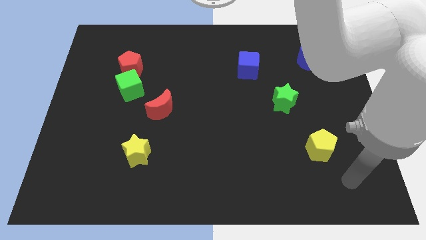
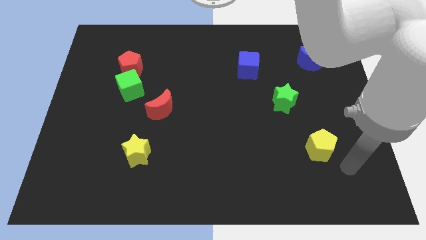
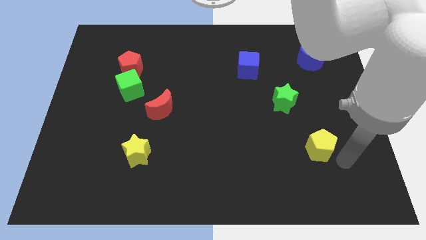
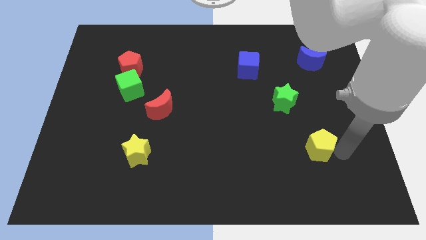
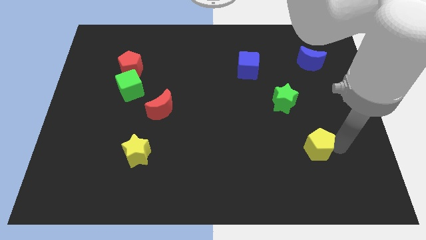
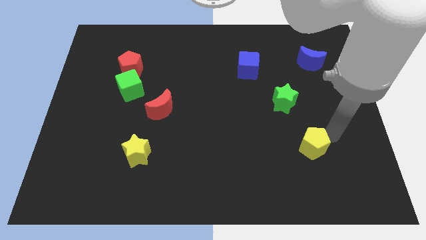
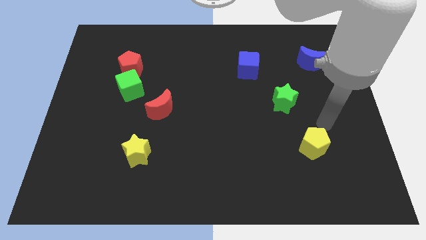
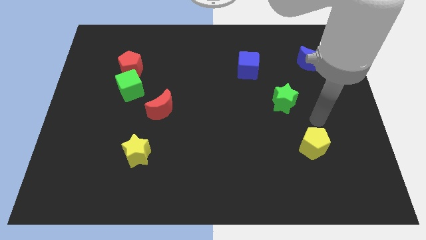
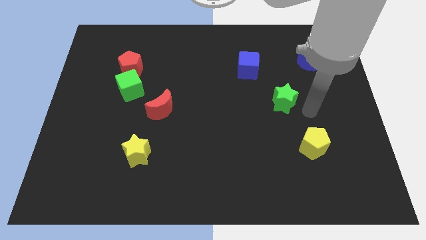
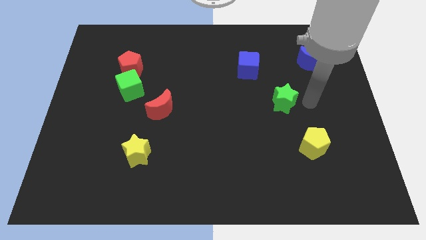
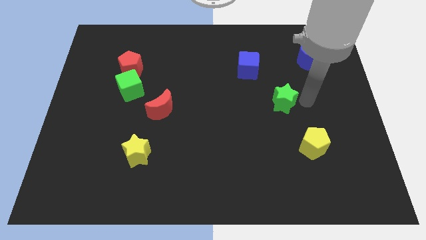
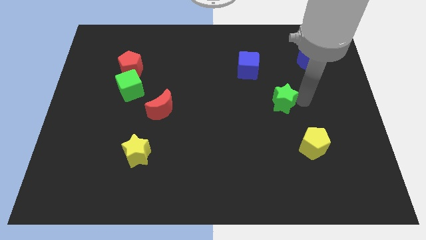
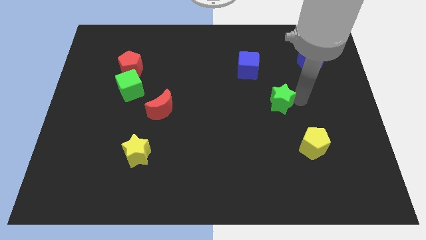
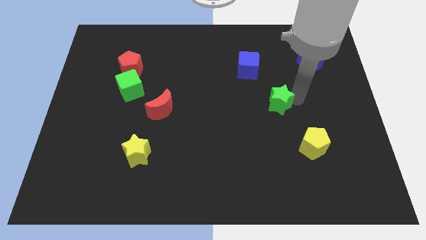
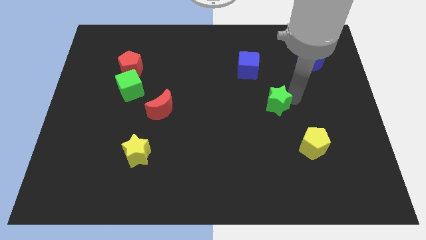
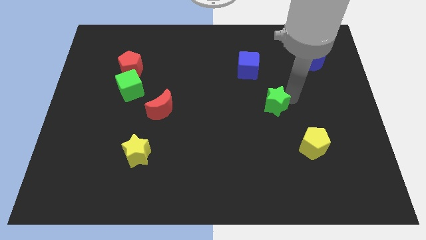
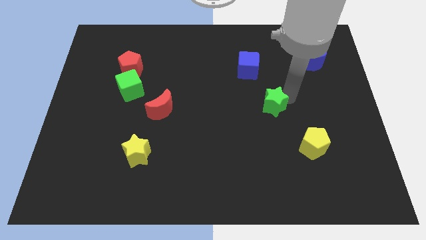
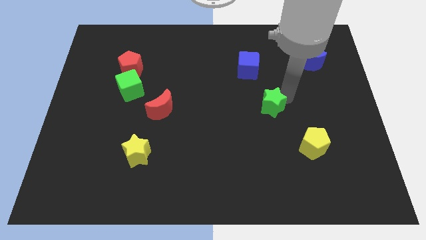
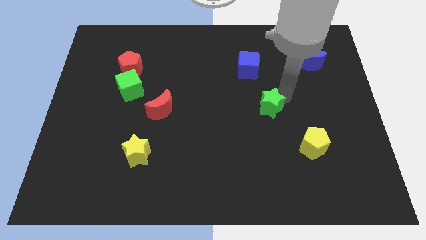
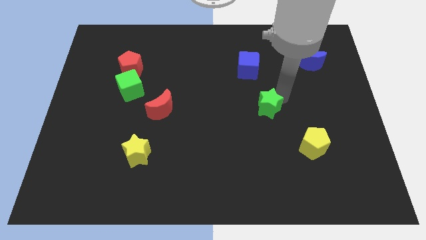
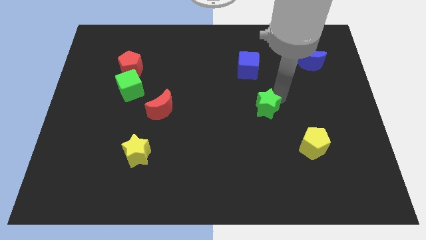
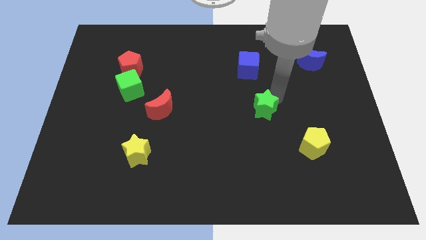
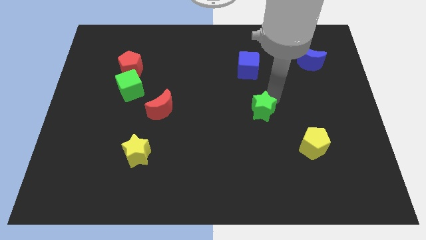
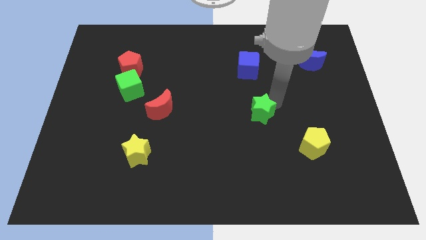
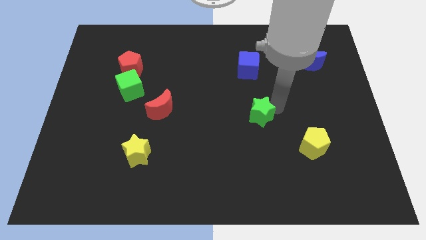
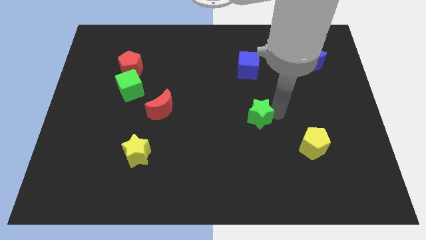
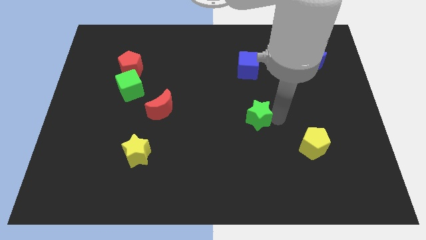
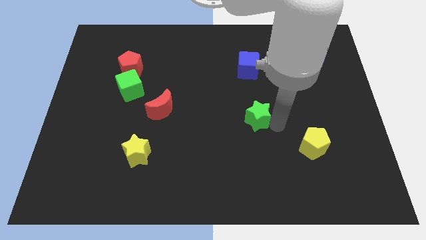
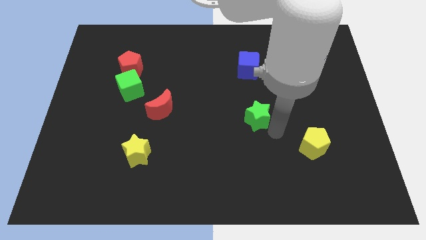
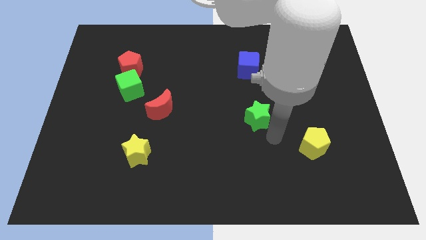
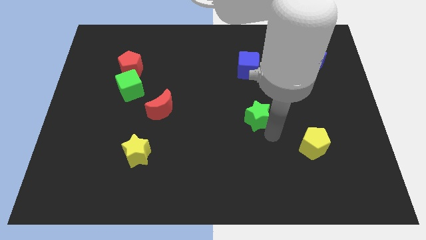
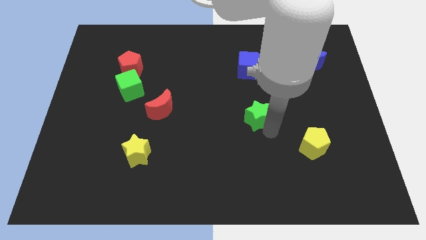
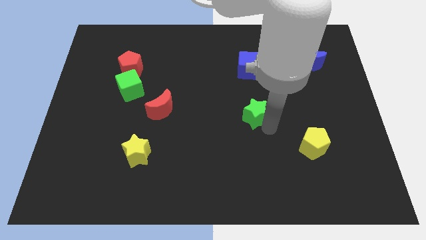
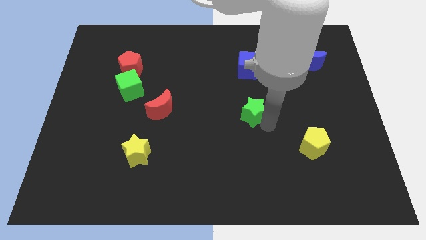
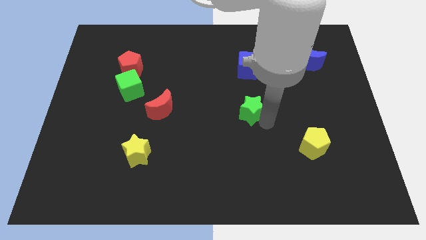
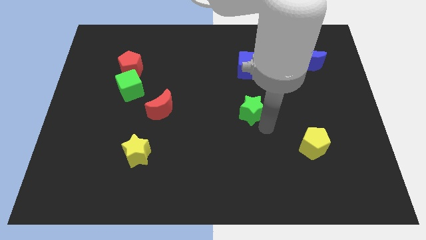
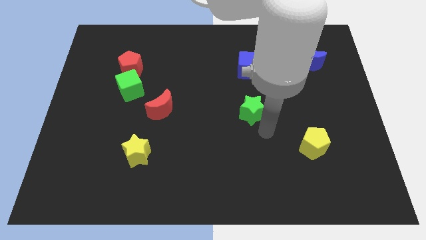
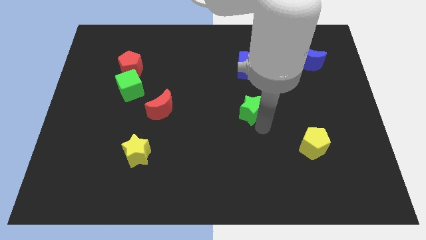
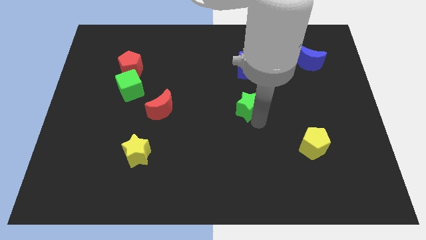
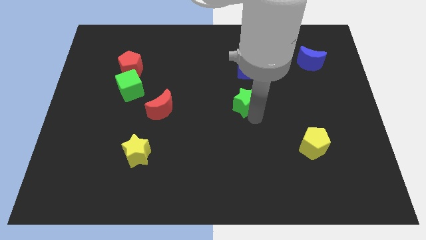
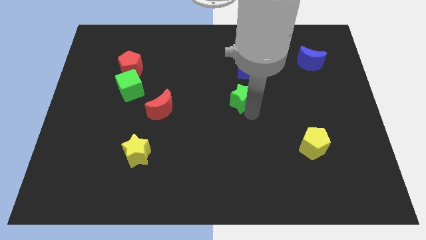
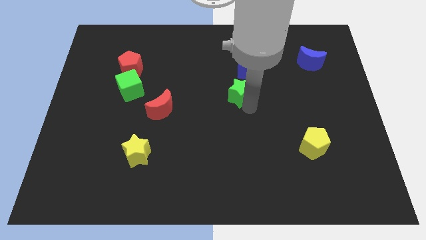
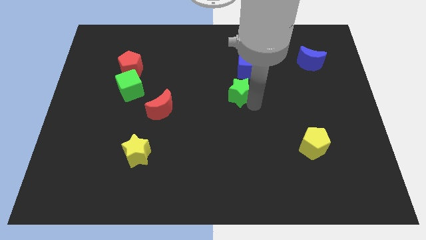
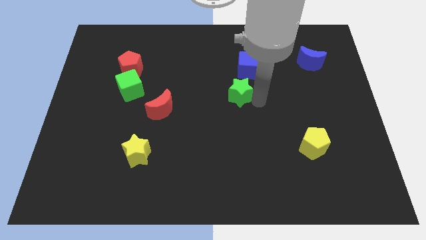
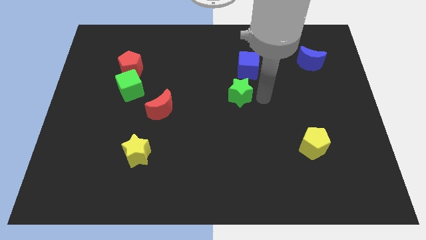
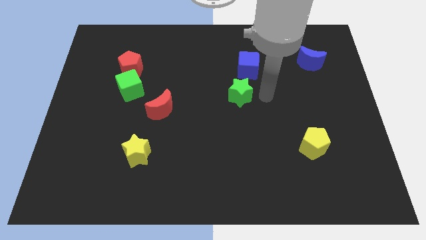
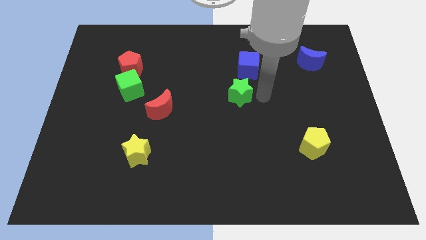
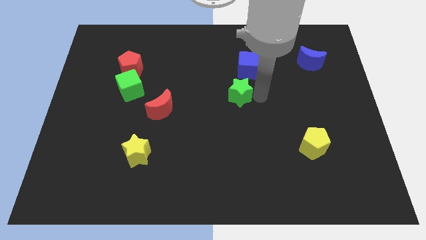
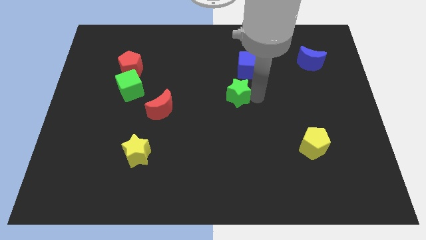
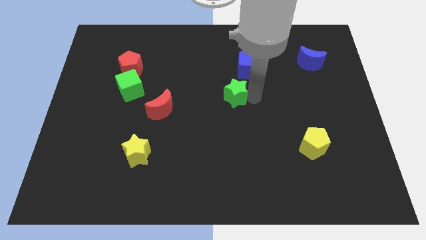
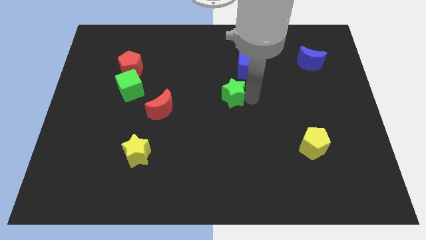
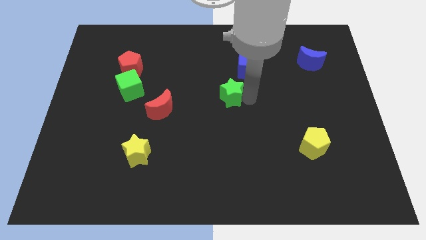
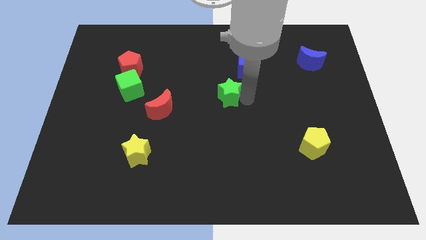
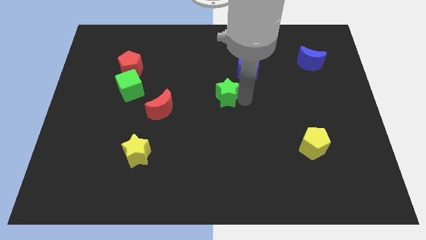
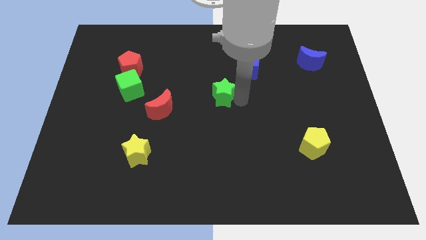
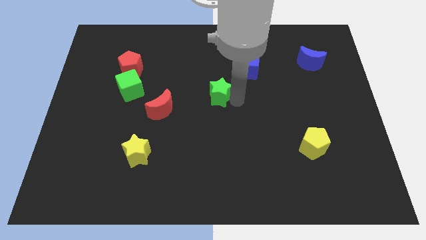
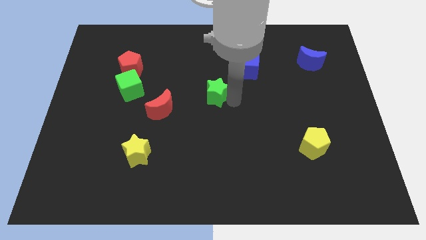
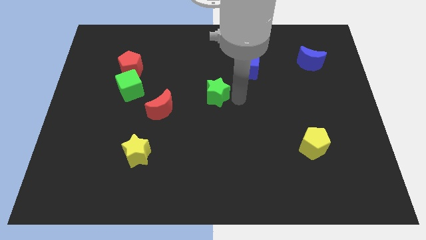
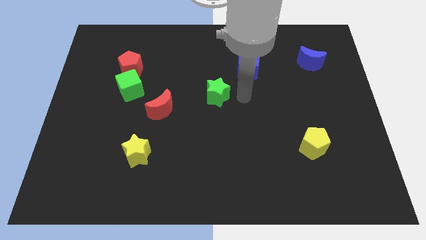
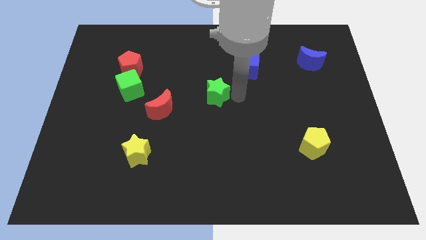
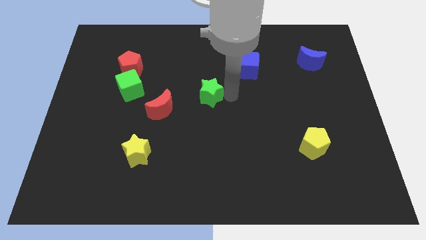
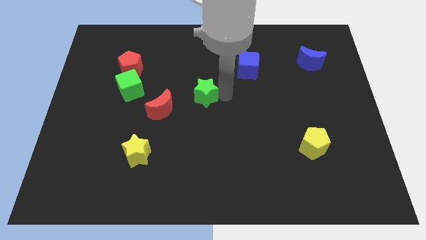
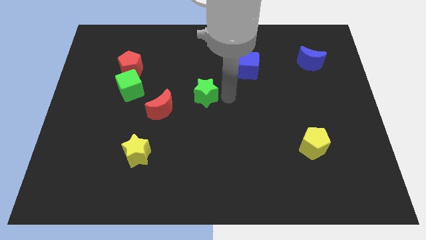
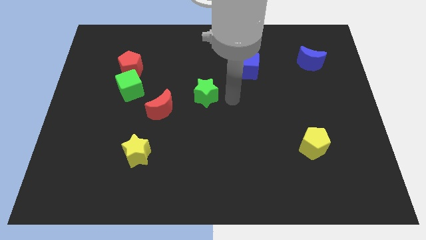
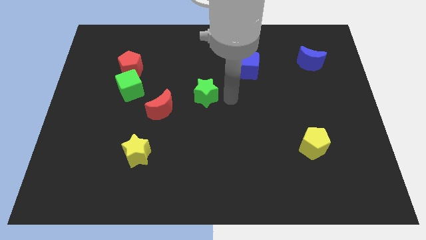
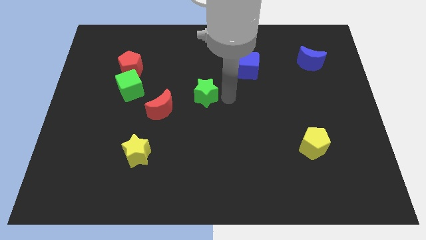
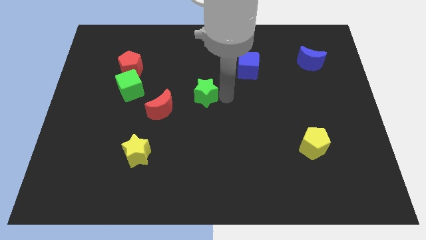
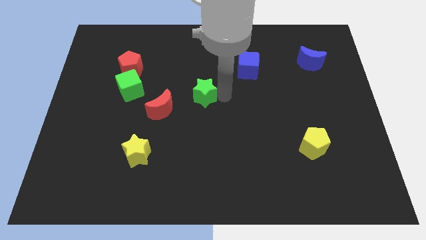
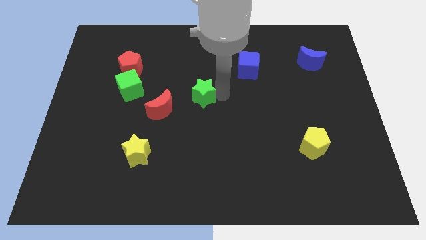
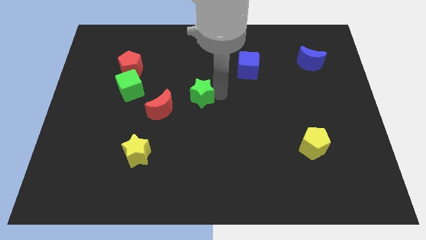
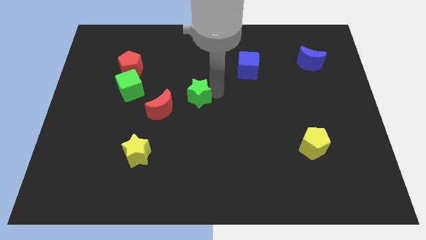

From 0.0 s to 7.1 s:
slide the green star to the left

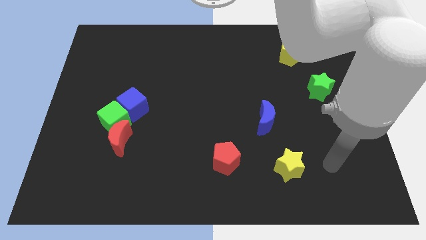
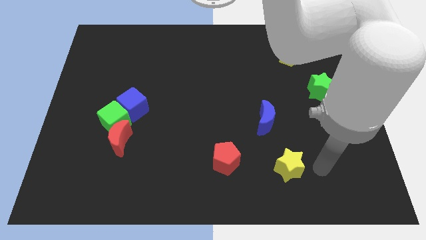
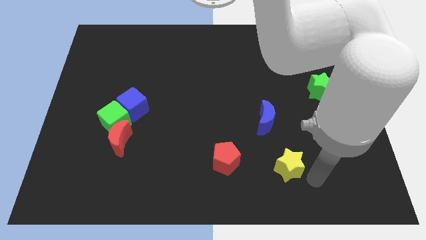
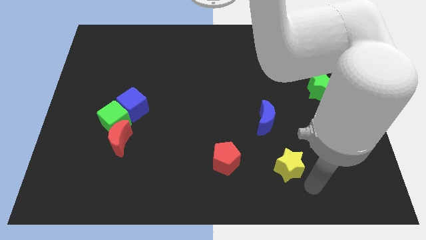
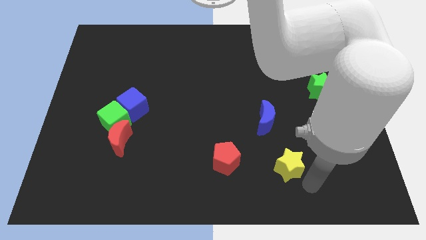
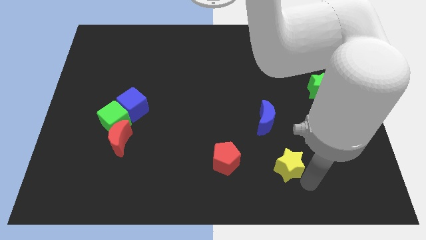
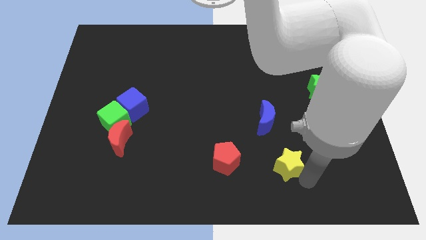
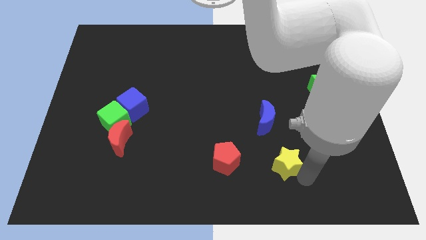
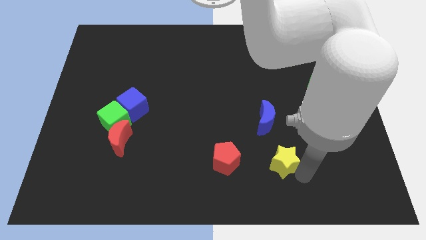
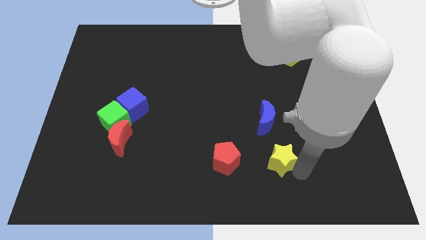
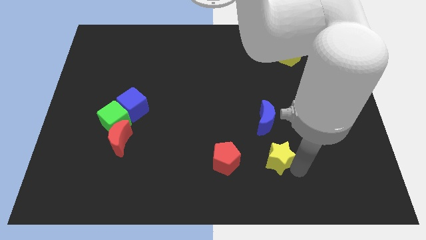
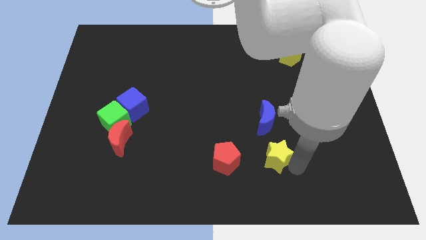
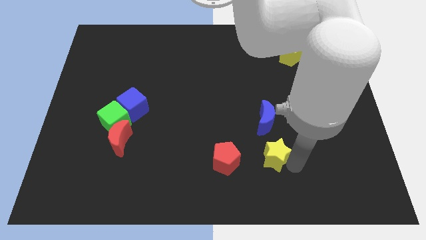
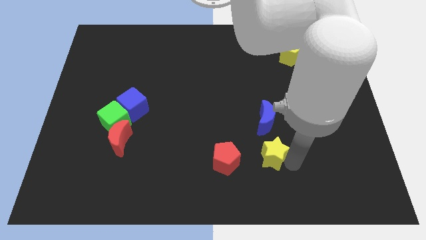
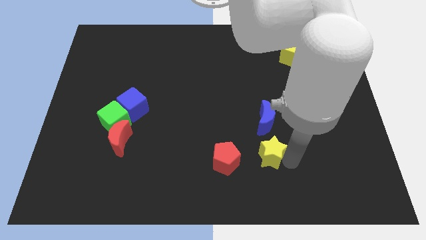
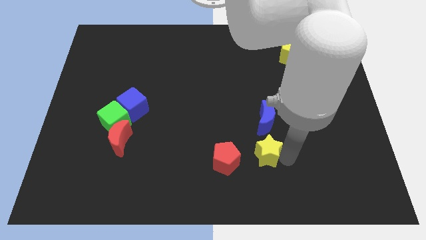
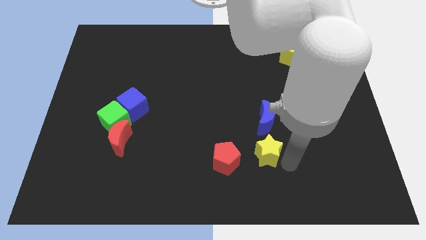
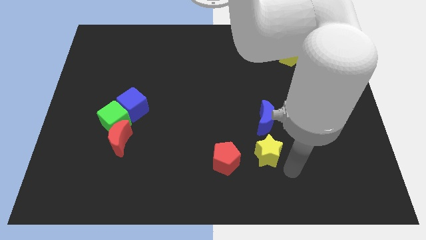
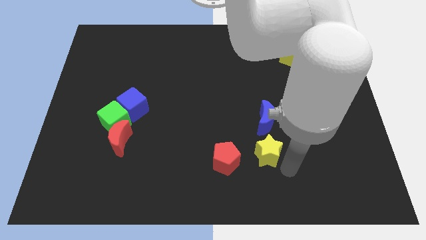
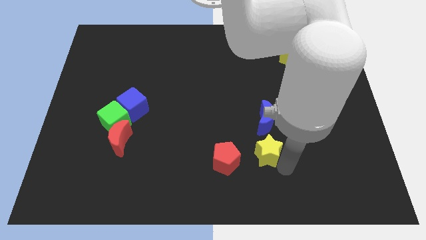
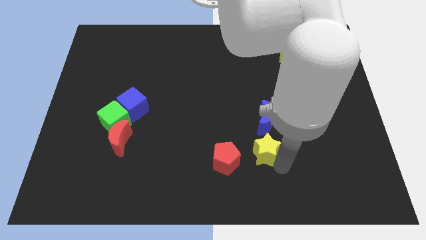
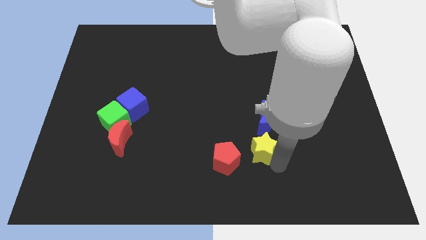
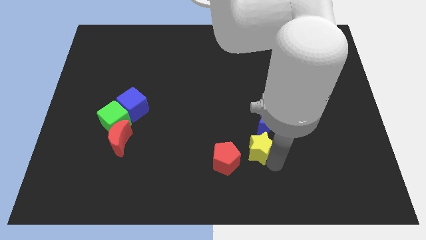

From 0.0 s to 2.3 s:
slightly push the yellow star upwards and to the left diagonally
